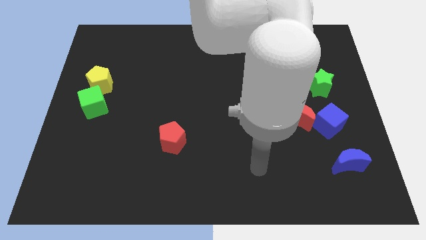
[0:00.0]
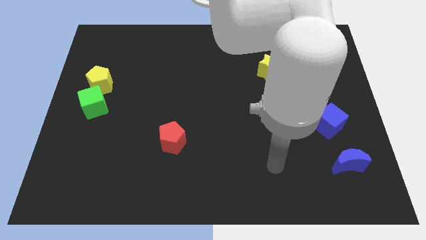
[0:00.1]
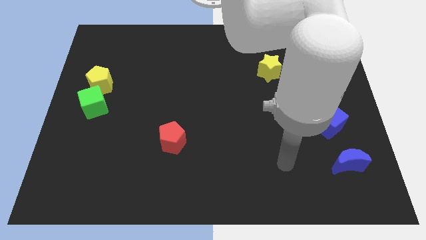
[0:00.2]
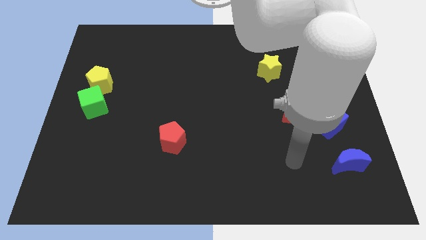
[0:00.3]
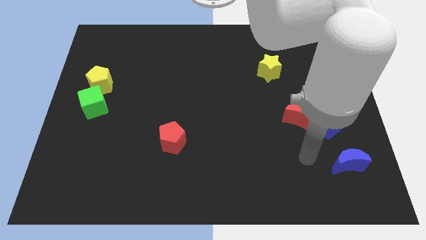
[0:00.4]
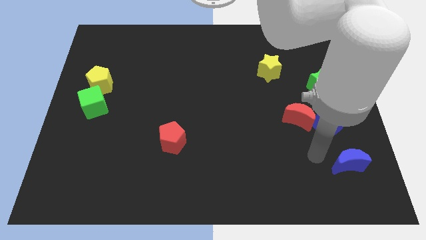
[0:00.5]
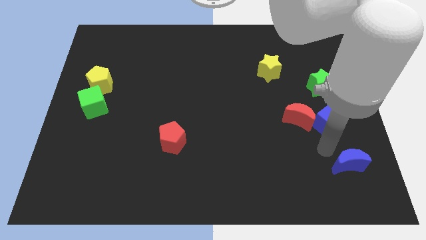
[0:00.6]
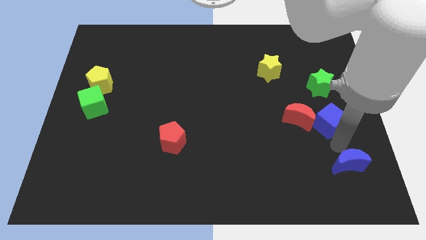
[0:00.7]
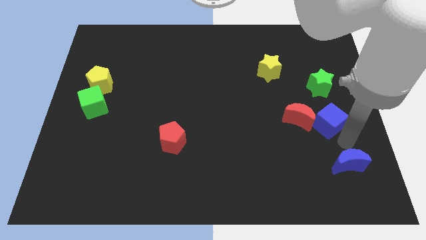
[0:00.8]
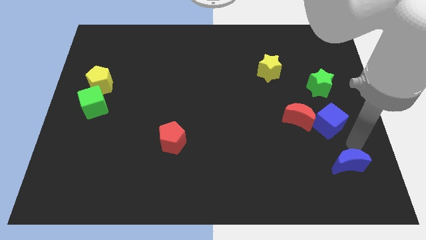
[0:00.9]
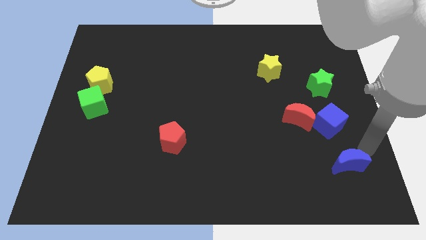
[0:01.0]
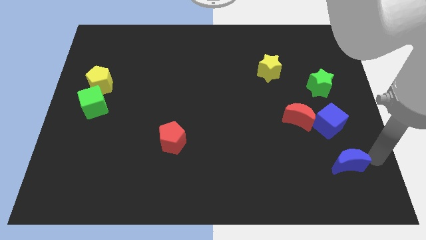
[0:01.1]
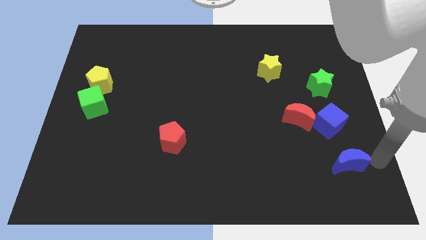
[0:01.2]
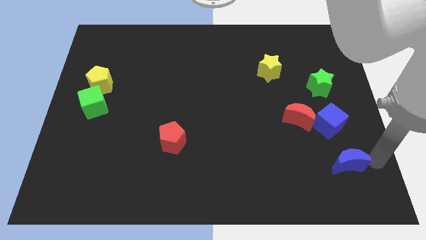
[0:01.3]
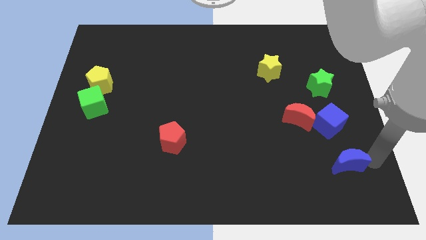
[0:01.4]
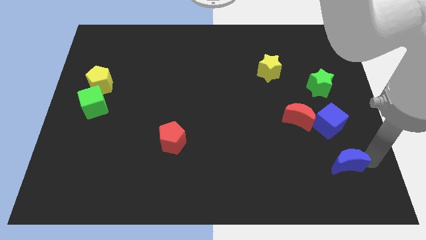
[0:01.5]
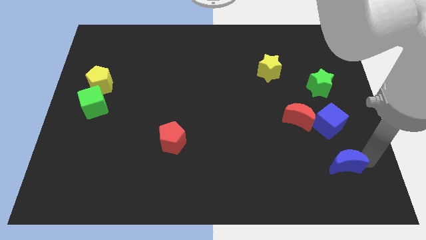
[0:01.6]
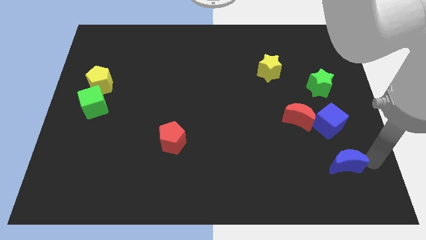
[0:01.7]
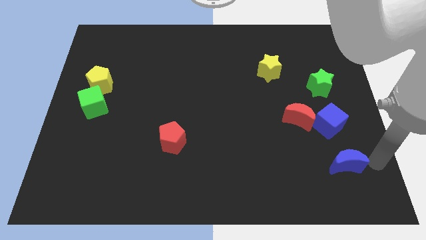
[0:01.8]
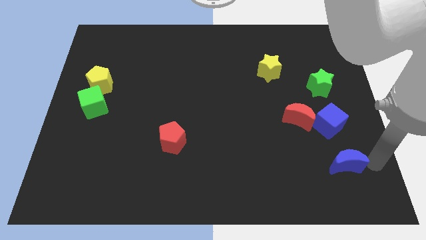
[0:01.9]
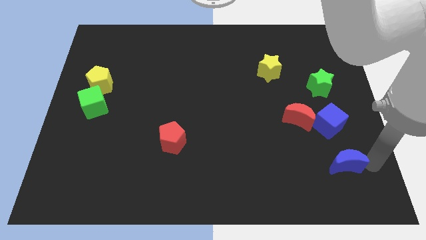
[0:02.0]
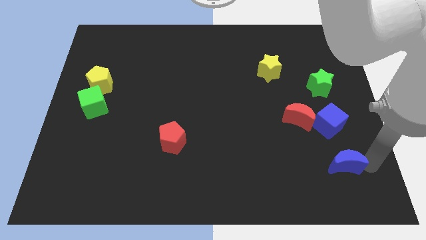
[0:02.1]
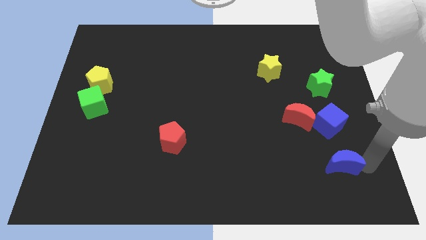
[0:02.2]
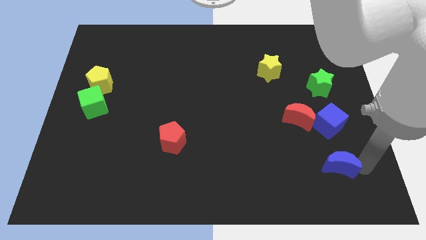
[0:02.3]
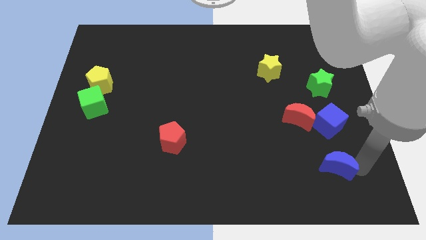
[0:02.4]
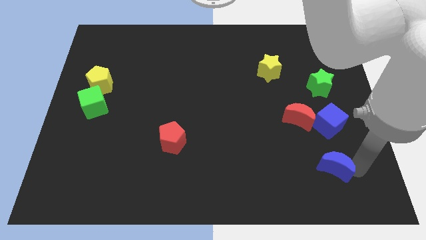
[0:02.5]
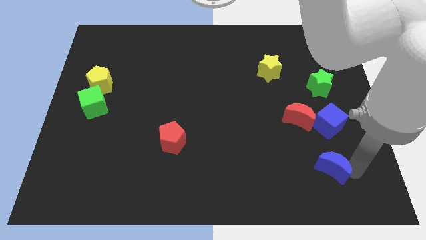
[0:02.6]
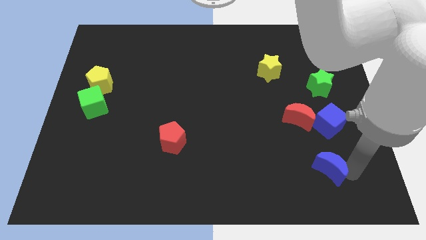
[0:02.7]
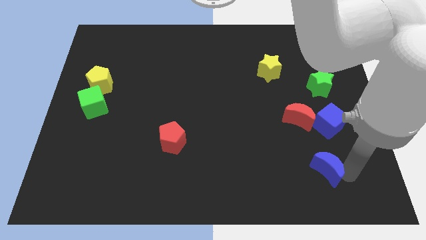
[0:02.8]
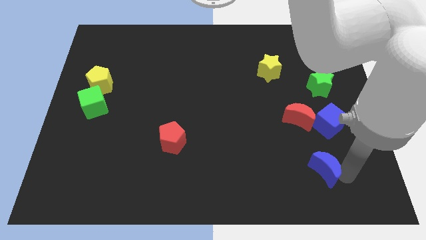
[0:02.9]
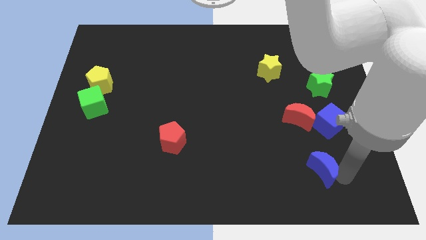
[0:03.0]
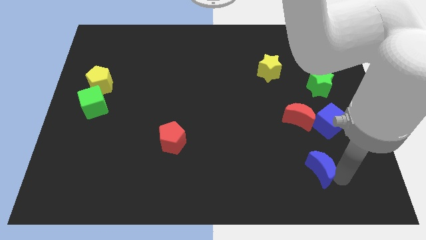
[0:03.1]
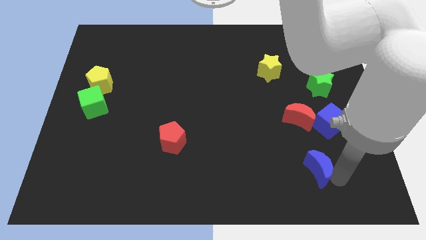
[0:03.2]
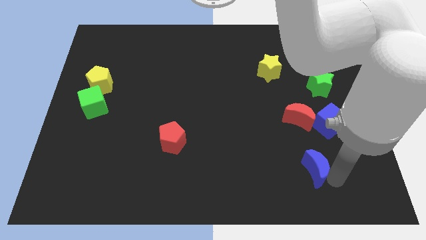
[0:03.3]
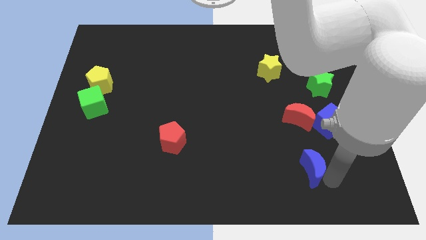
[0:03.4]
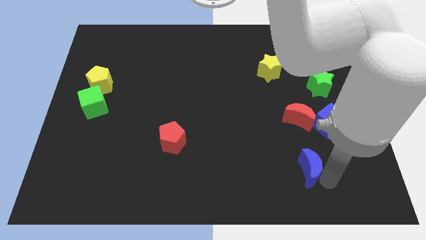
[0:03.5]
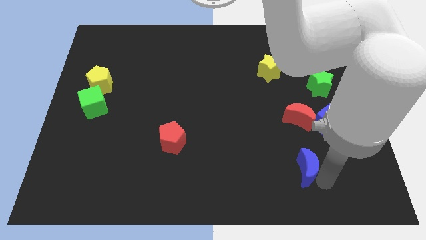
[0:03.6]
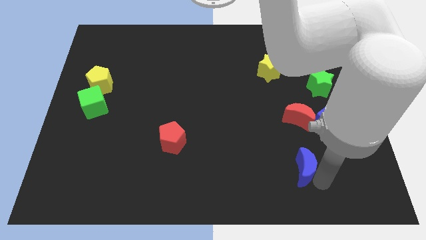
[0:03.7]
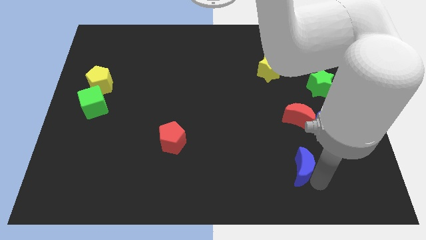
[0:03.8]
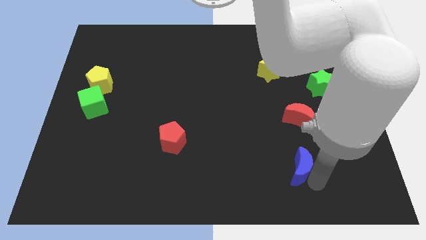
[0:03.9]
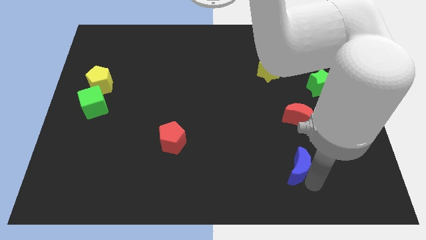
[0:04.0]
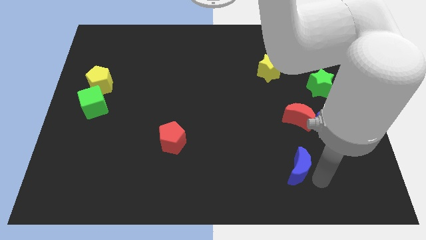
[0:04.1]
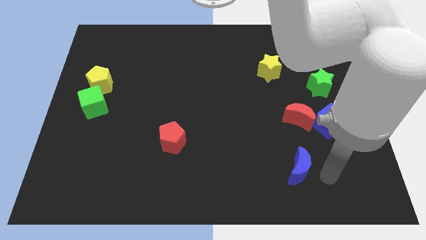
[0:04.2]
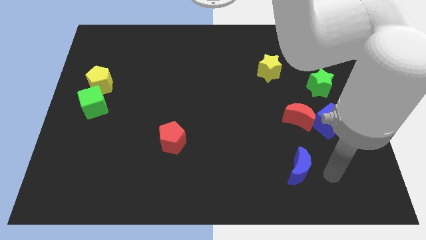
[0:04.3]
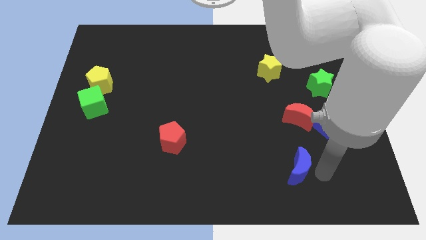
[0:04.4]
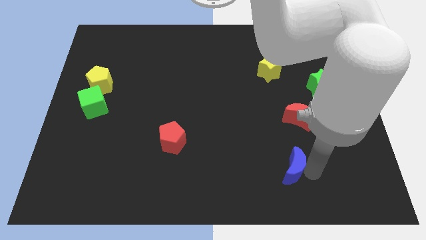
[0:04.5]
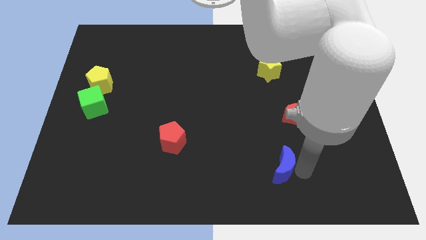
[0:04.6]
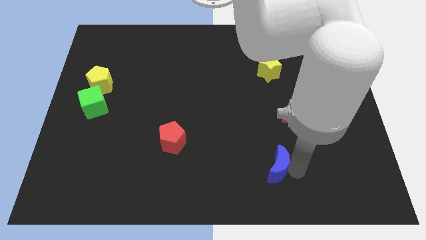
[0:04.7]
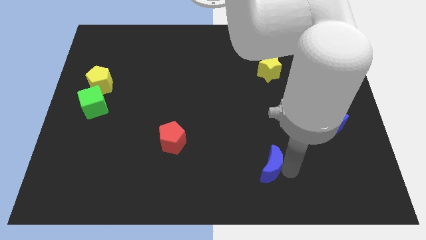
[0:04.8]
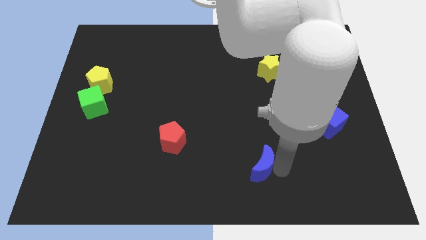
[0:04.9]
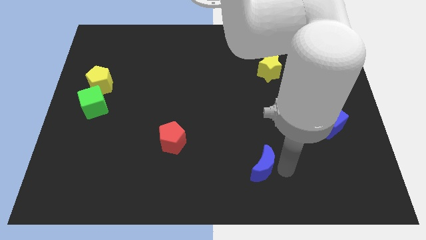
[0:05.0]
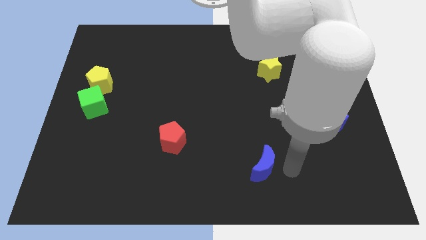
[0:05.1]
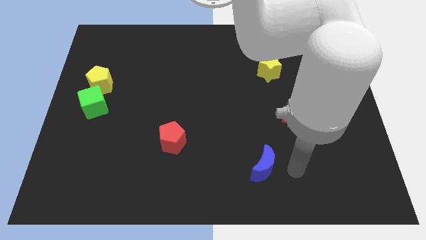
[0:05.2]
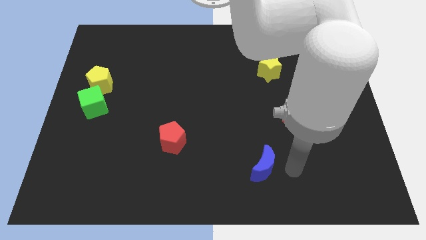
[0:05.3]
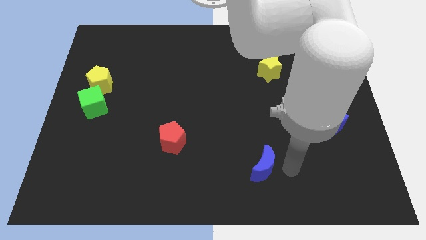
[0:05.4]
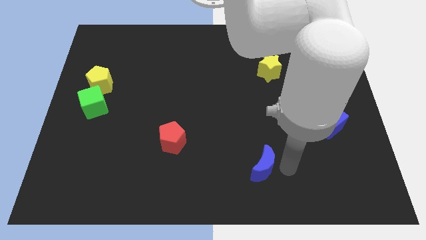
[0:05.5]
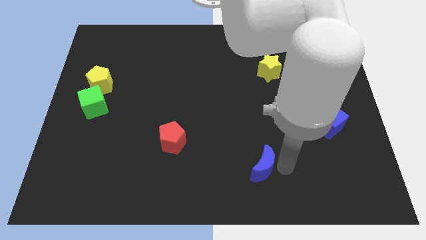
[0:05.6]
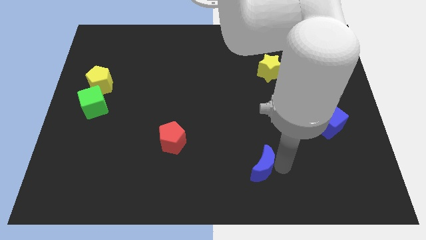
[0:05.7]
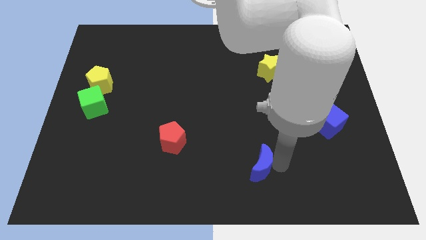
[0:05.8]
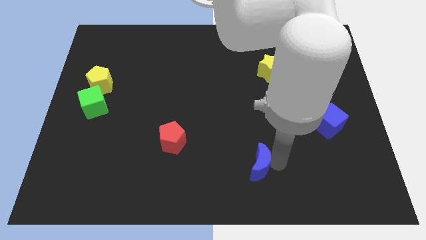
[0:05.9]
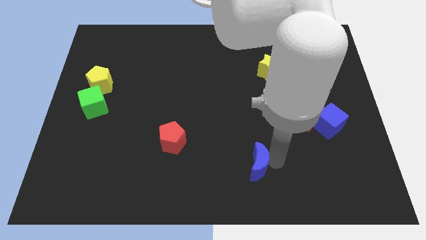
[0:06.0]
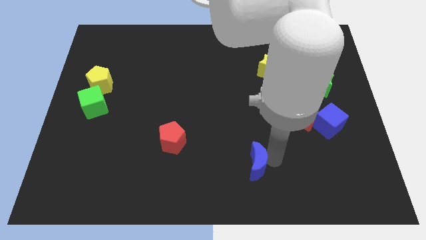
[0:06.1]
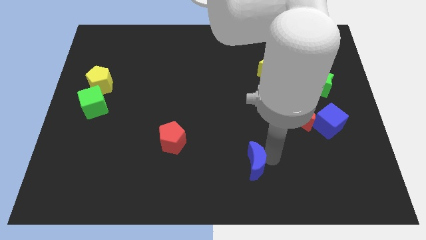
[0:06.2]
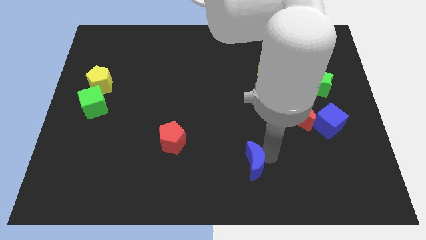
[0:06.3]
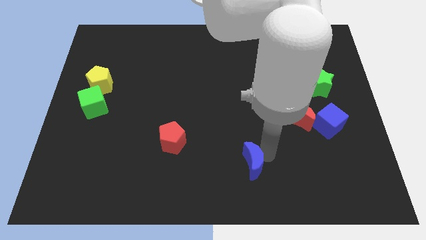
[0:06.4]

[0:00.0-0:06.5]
move the blue moon left

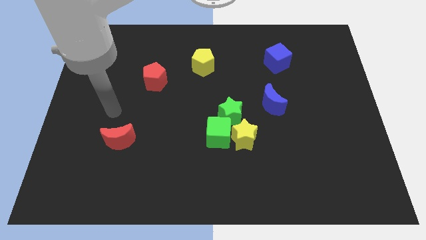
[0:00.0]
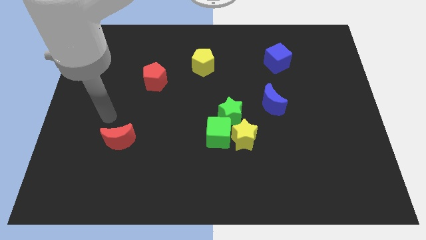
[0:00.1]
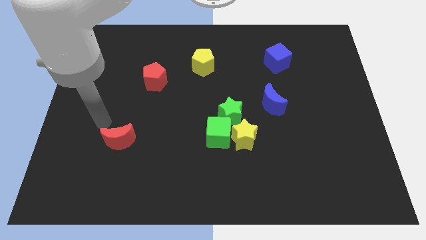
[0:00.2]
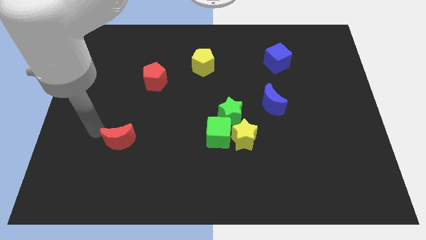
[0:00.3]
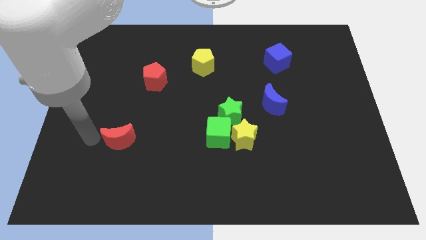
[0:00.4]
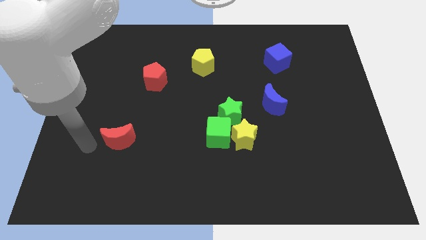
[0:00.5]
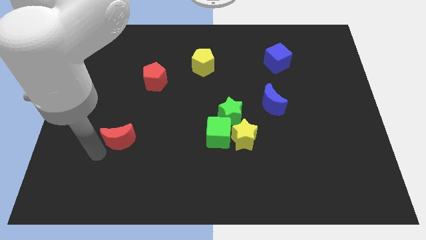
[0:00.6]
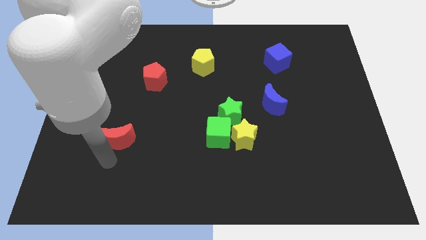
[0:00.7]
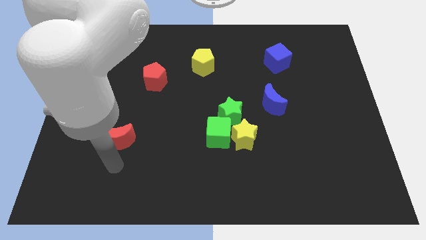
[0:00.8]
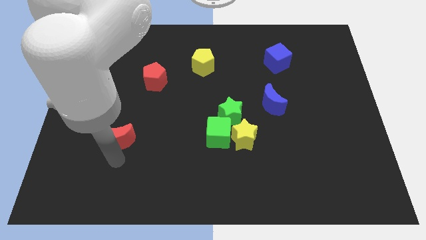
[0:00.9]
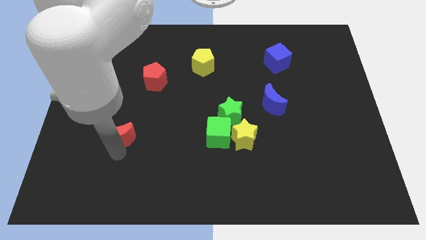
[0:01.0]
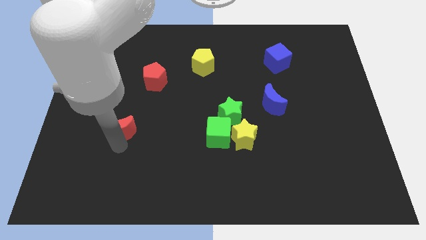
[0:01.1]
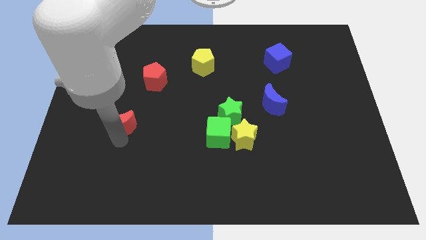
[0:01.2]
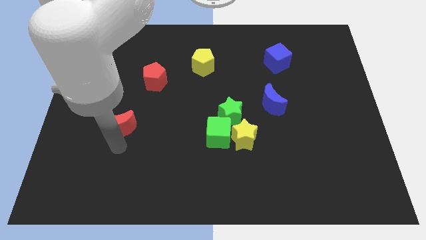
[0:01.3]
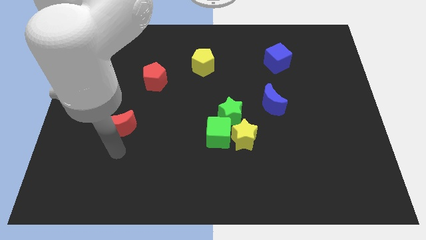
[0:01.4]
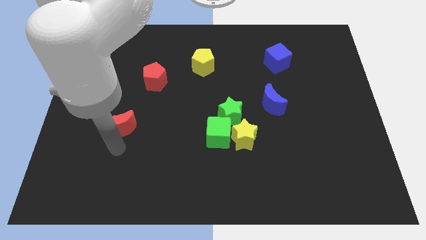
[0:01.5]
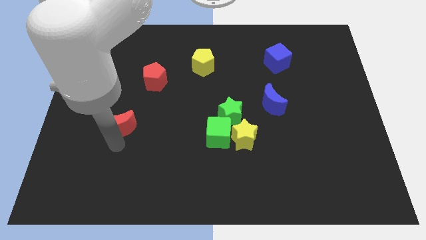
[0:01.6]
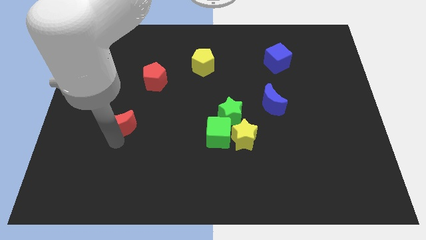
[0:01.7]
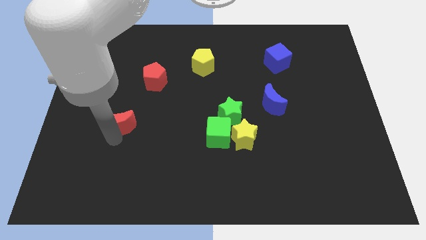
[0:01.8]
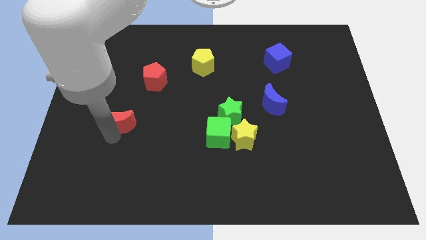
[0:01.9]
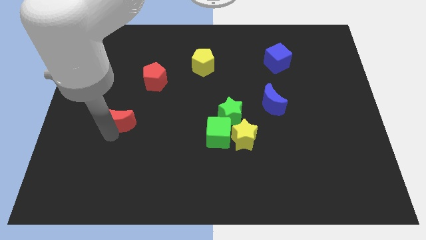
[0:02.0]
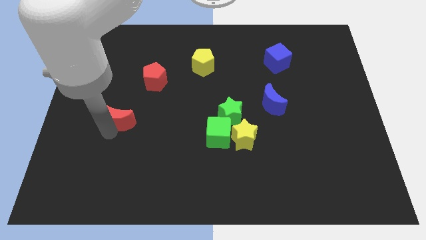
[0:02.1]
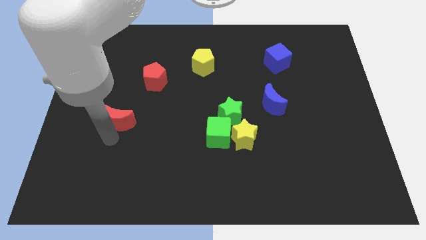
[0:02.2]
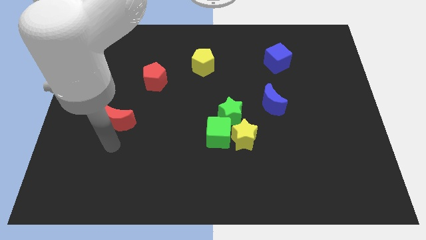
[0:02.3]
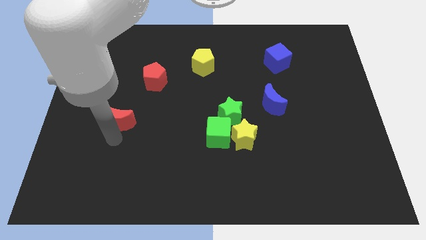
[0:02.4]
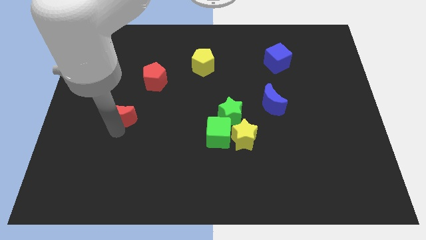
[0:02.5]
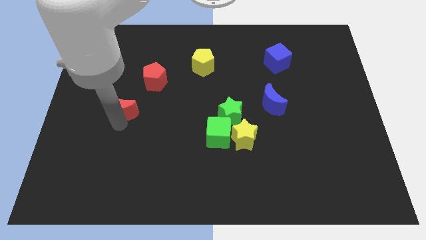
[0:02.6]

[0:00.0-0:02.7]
push the red moon a bit up
